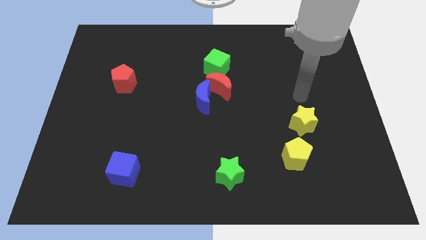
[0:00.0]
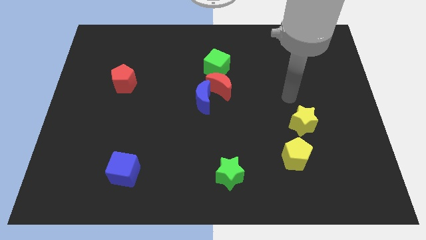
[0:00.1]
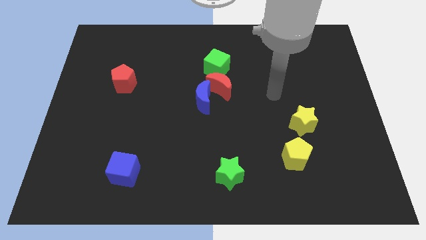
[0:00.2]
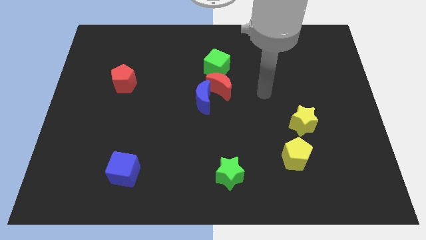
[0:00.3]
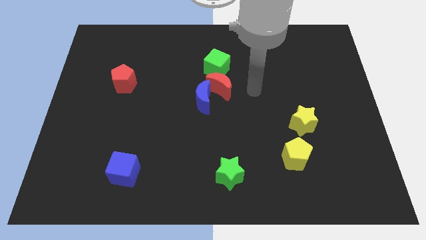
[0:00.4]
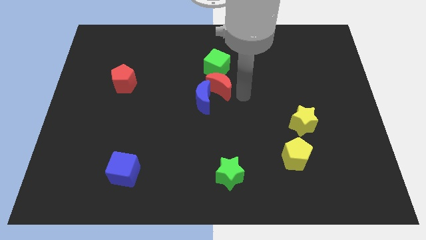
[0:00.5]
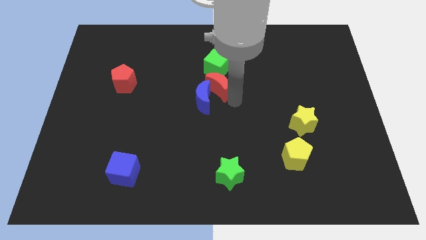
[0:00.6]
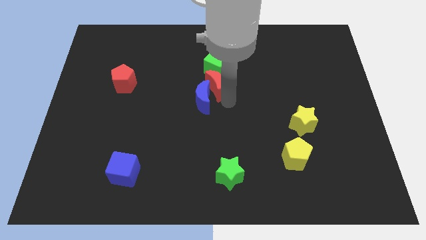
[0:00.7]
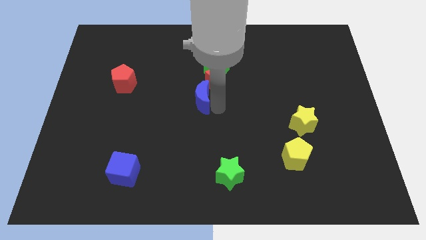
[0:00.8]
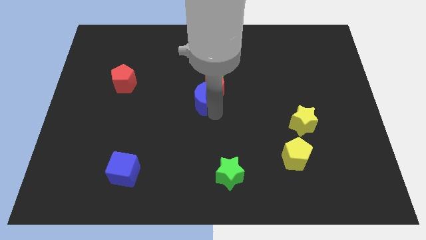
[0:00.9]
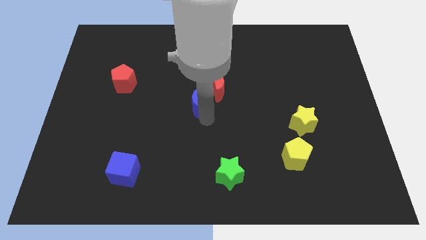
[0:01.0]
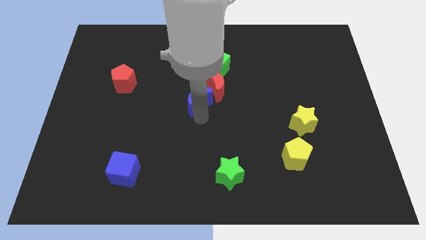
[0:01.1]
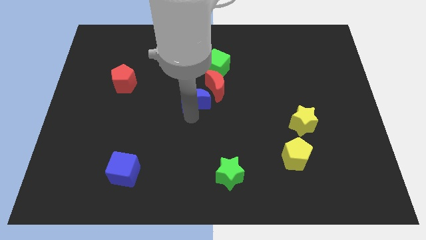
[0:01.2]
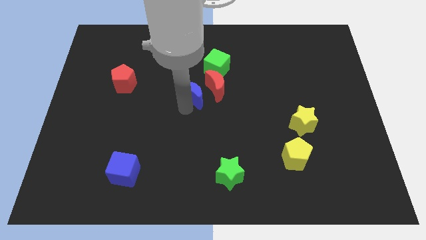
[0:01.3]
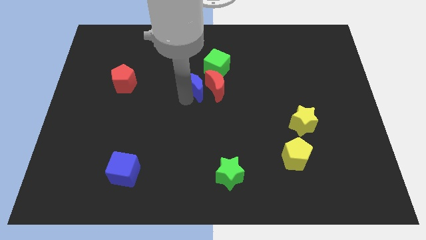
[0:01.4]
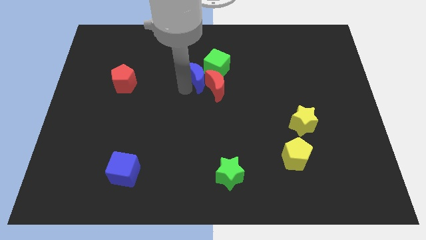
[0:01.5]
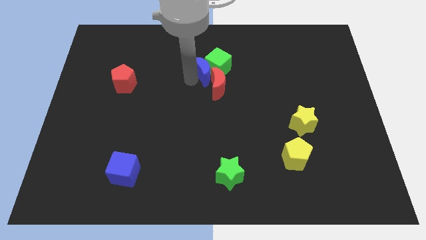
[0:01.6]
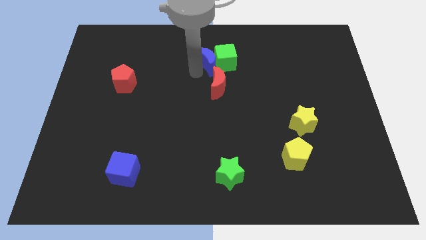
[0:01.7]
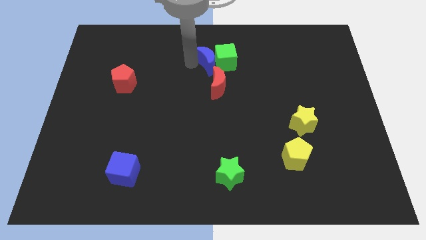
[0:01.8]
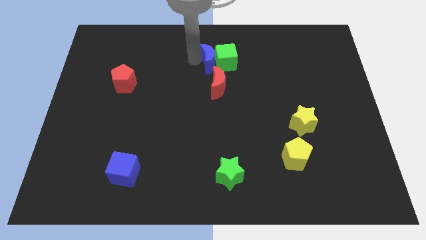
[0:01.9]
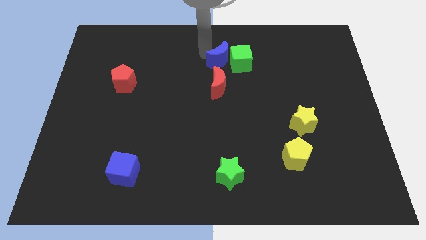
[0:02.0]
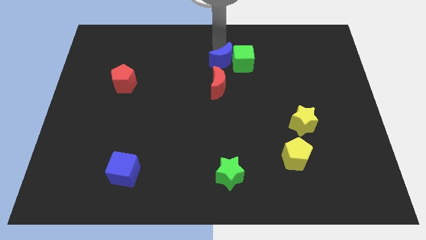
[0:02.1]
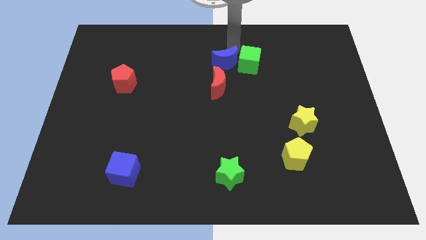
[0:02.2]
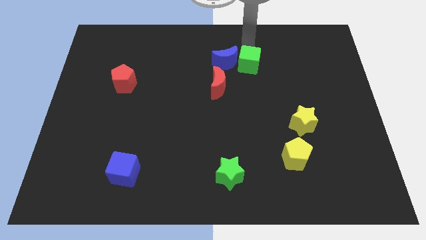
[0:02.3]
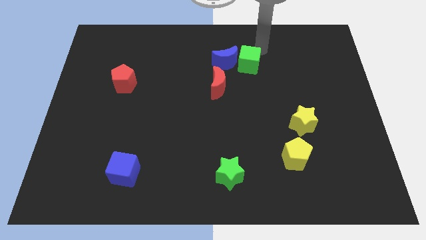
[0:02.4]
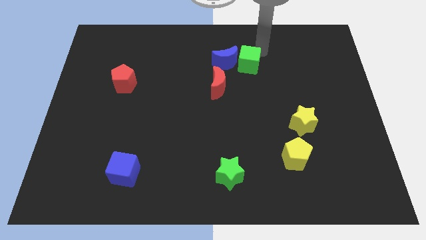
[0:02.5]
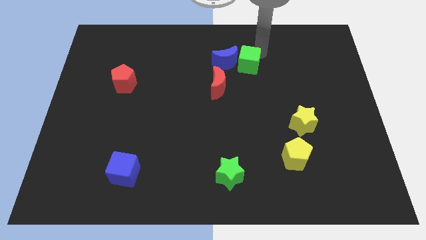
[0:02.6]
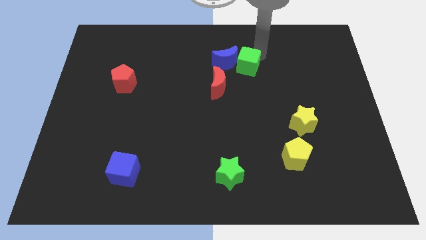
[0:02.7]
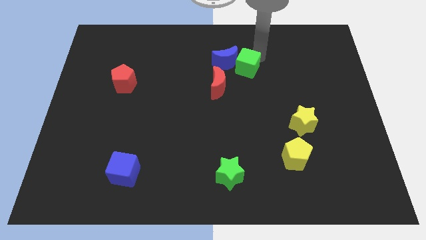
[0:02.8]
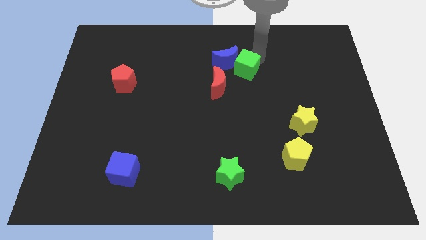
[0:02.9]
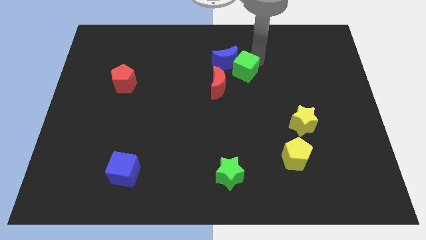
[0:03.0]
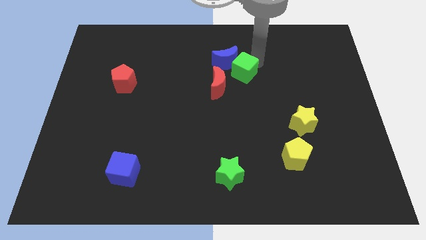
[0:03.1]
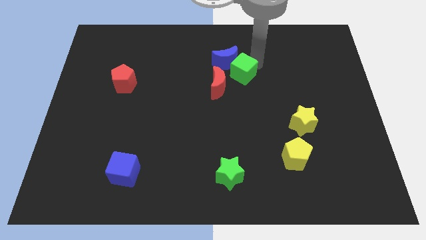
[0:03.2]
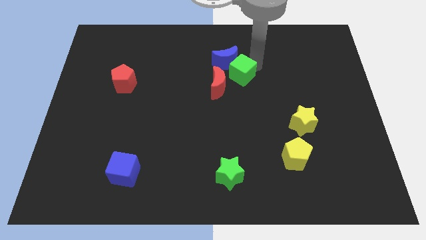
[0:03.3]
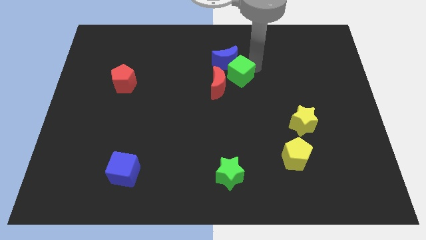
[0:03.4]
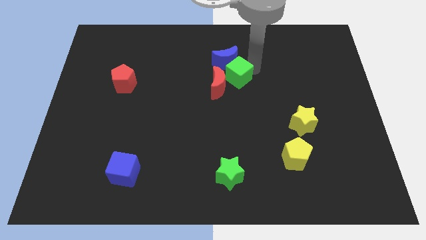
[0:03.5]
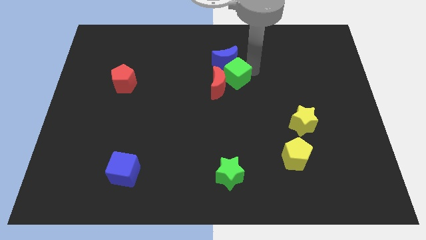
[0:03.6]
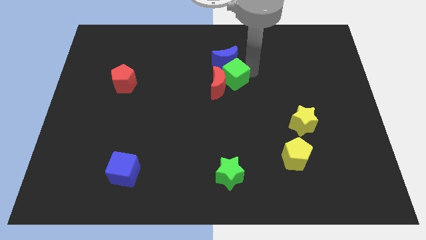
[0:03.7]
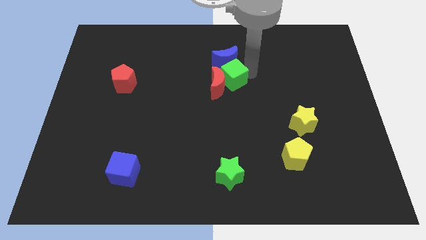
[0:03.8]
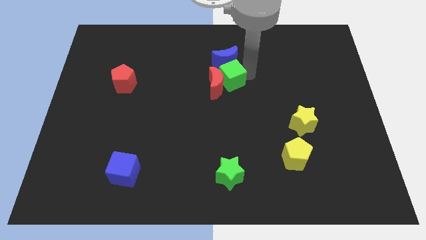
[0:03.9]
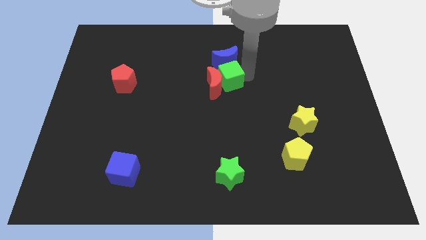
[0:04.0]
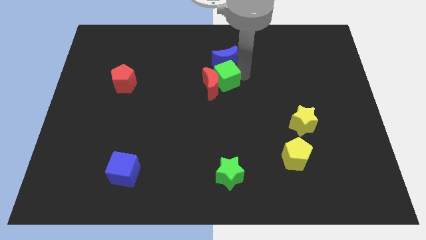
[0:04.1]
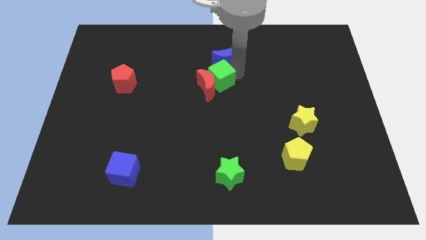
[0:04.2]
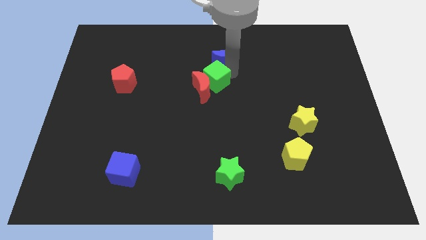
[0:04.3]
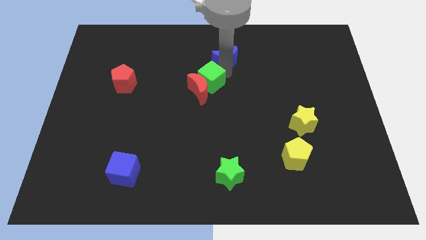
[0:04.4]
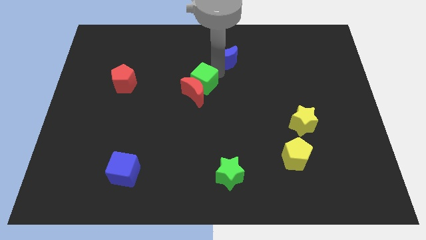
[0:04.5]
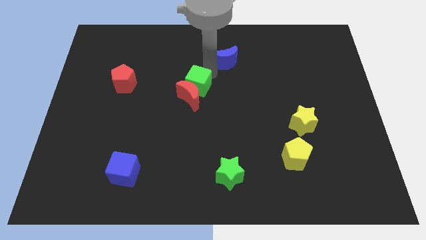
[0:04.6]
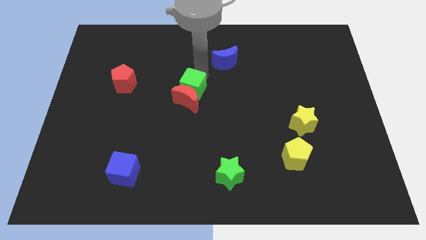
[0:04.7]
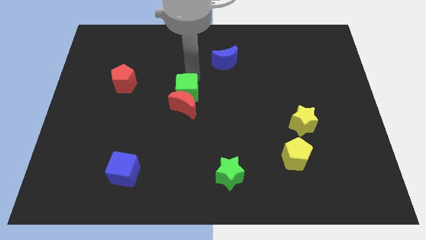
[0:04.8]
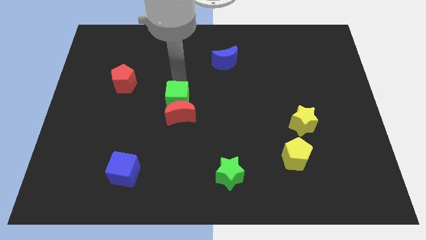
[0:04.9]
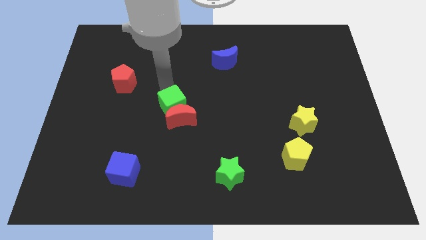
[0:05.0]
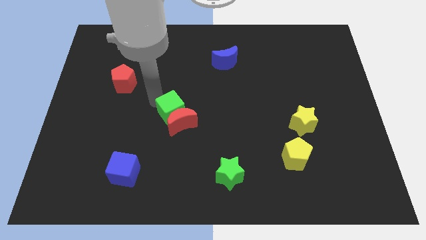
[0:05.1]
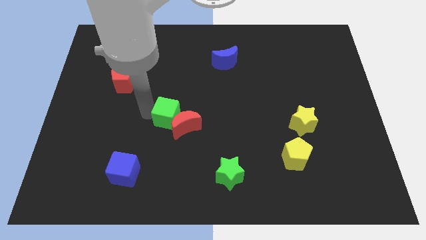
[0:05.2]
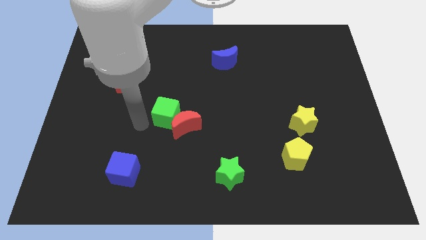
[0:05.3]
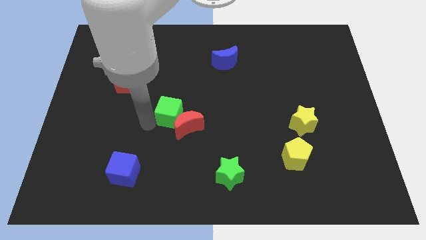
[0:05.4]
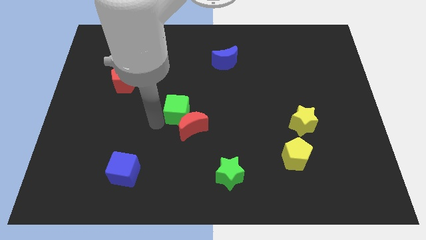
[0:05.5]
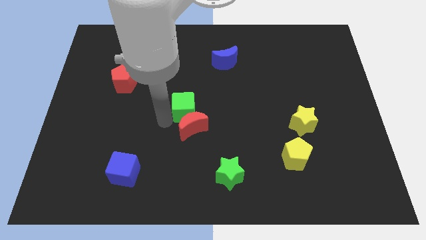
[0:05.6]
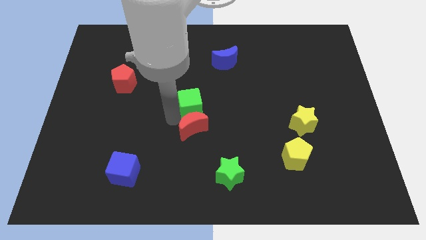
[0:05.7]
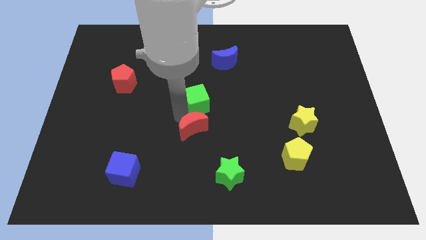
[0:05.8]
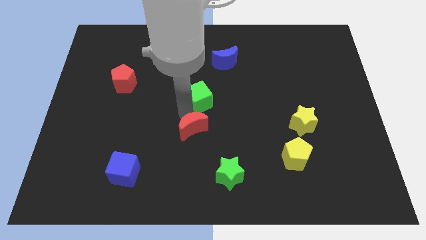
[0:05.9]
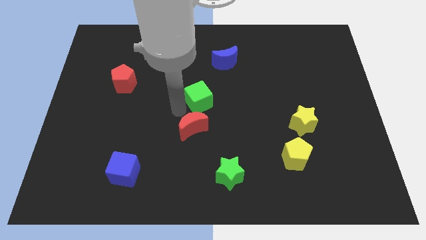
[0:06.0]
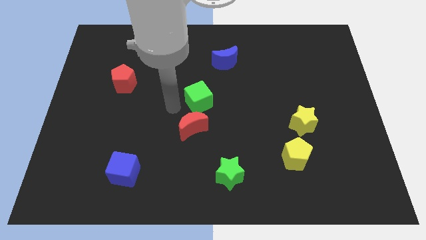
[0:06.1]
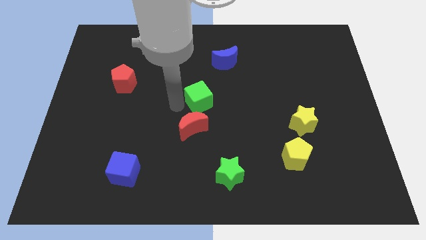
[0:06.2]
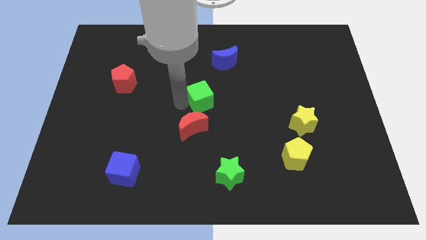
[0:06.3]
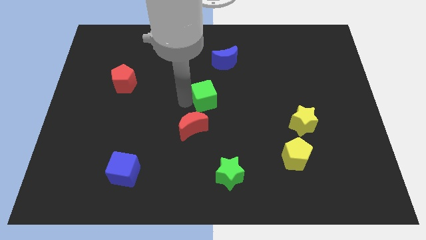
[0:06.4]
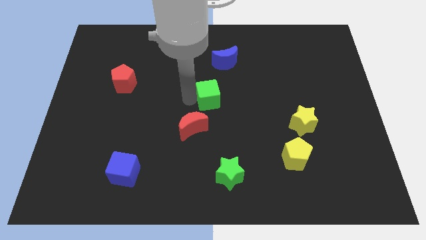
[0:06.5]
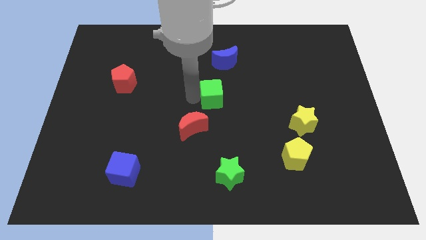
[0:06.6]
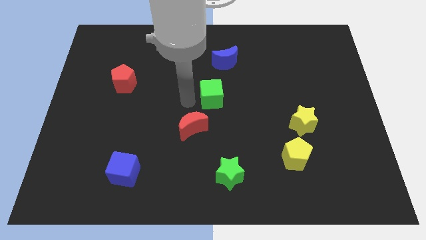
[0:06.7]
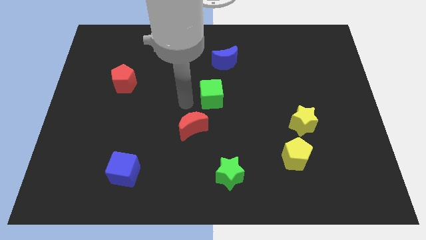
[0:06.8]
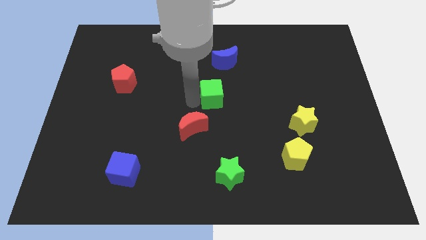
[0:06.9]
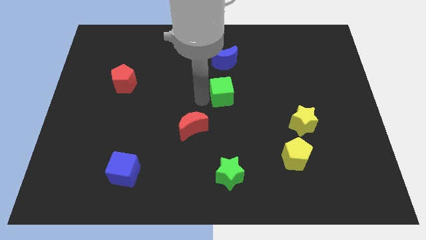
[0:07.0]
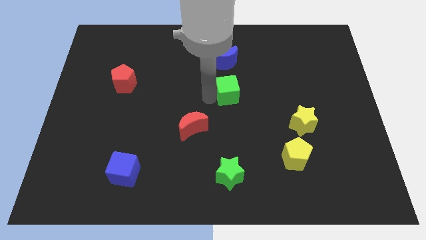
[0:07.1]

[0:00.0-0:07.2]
slide the green cube downwards and then to the right a little bit

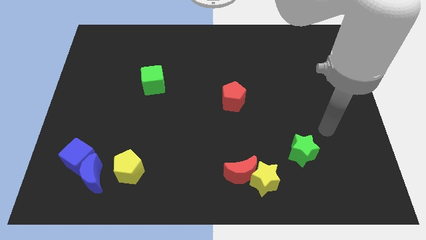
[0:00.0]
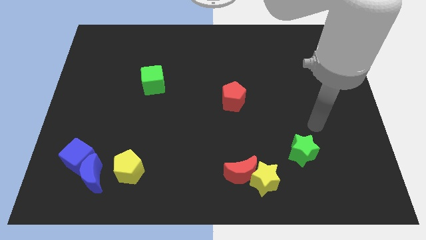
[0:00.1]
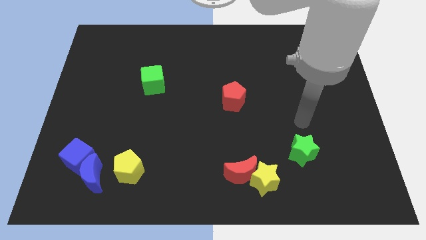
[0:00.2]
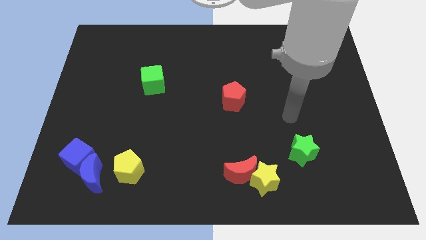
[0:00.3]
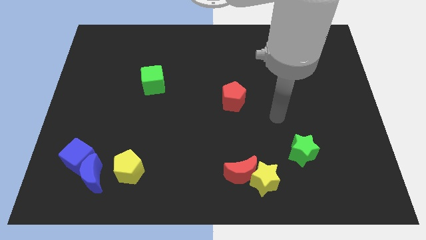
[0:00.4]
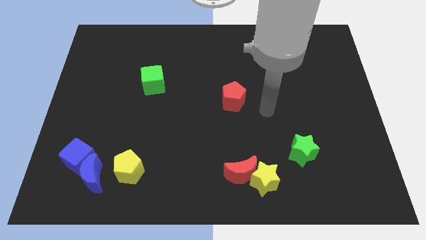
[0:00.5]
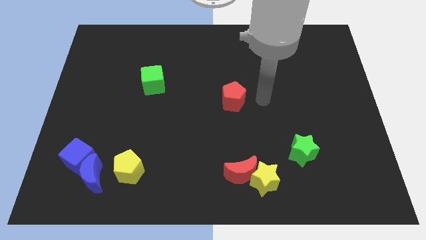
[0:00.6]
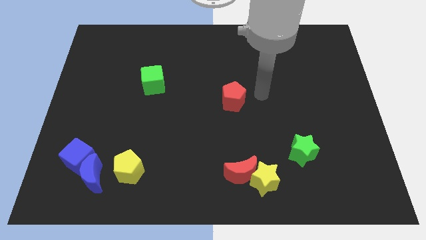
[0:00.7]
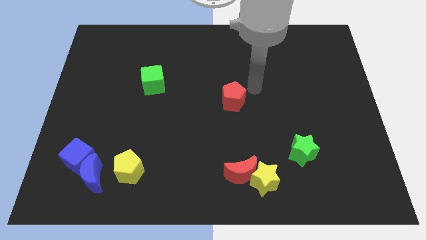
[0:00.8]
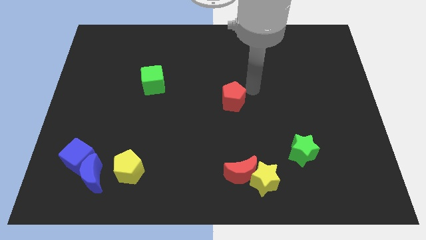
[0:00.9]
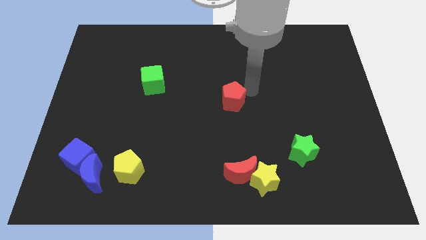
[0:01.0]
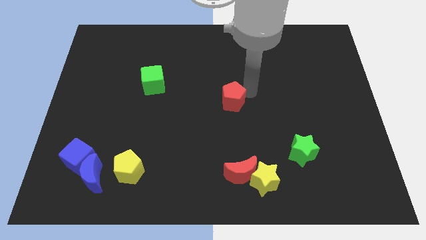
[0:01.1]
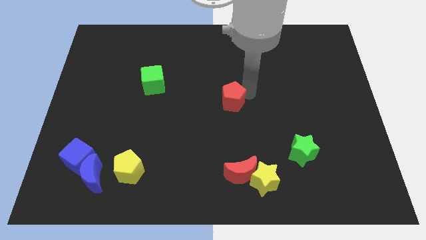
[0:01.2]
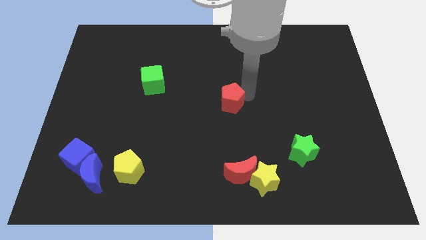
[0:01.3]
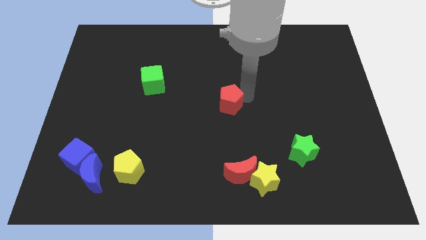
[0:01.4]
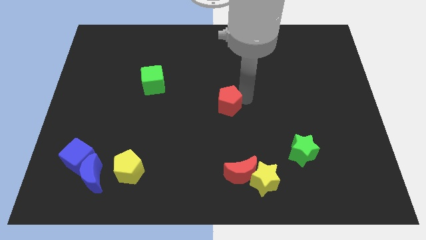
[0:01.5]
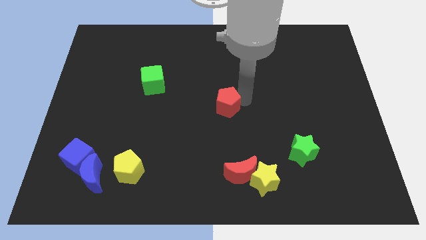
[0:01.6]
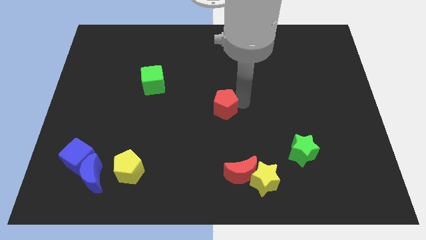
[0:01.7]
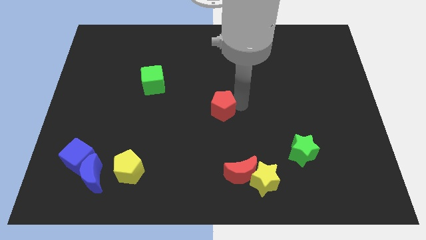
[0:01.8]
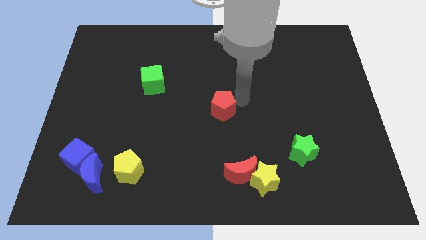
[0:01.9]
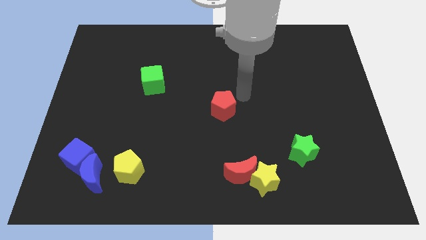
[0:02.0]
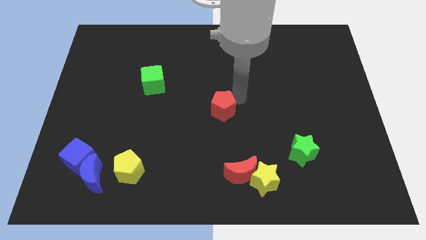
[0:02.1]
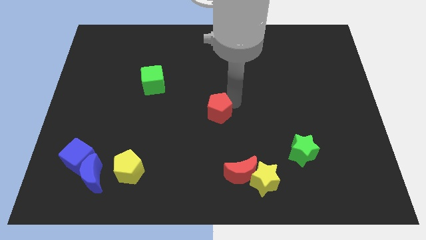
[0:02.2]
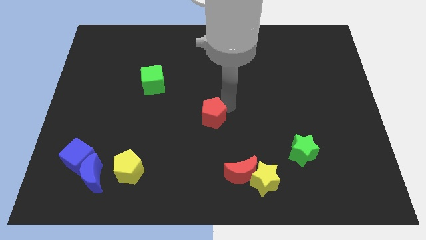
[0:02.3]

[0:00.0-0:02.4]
slightly slide the red pentagon downwards and left
